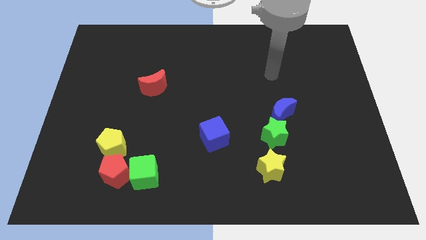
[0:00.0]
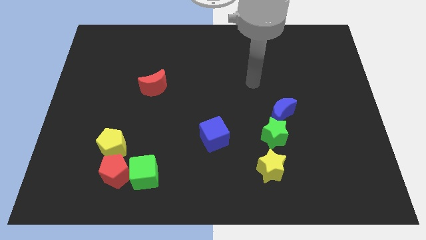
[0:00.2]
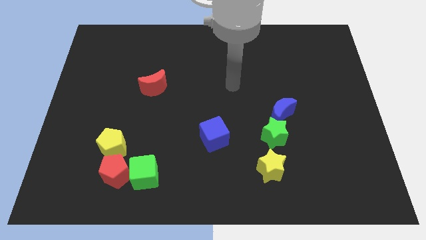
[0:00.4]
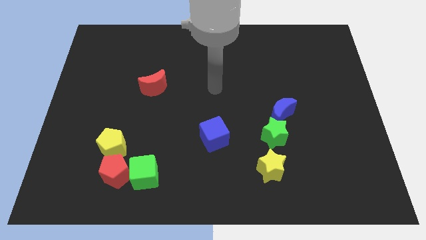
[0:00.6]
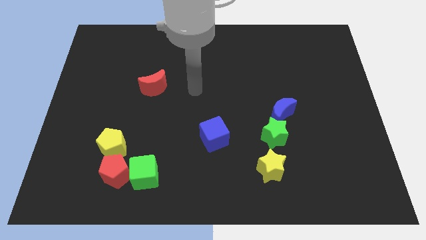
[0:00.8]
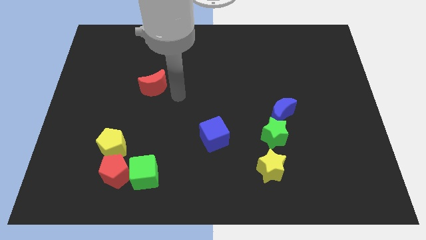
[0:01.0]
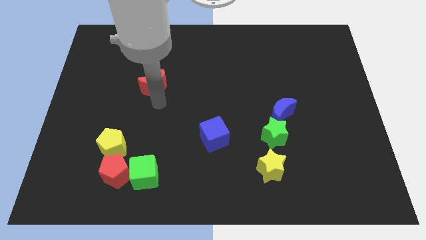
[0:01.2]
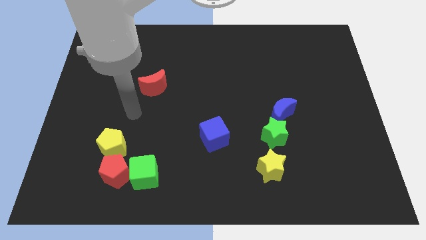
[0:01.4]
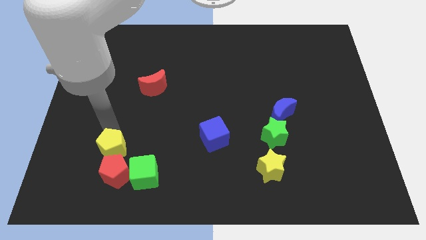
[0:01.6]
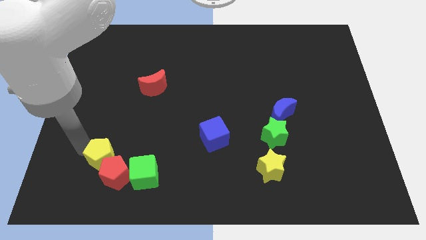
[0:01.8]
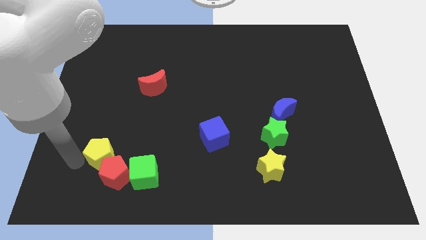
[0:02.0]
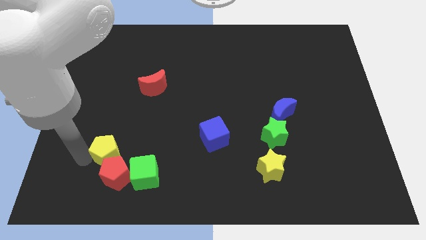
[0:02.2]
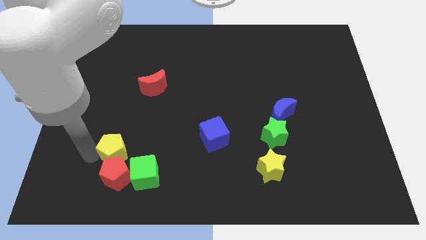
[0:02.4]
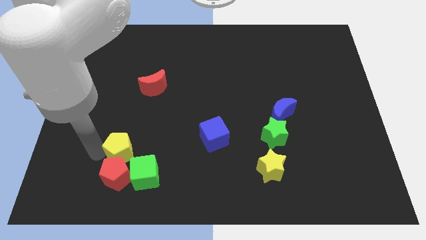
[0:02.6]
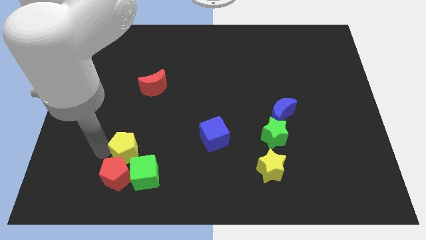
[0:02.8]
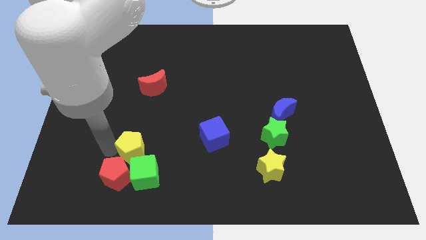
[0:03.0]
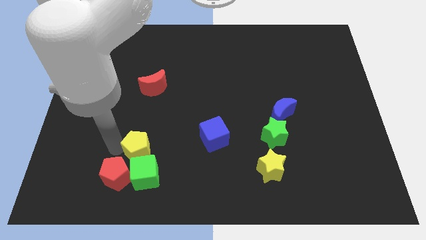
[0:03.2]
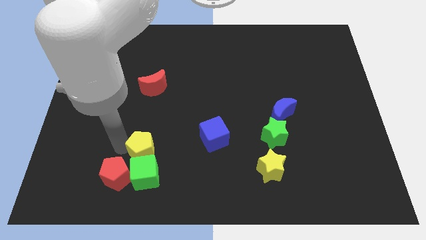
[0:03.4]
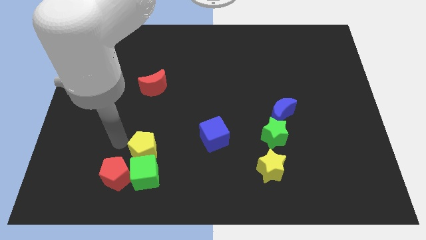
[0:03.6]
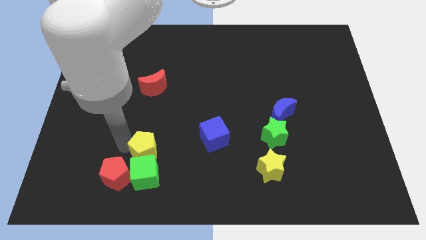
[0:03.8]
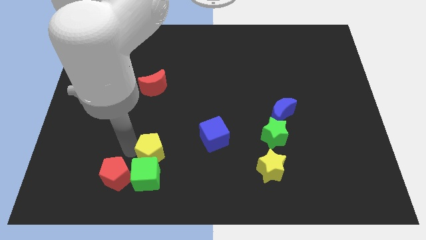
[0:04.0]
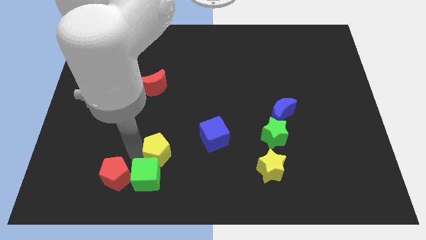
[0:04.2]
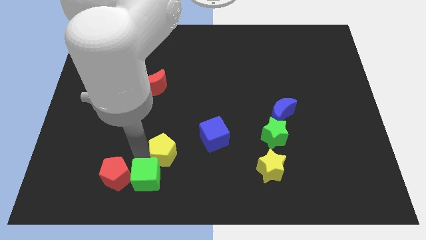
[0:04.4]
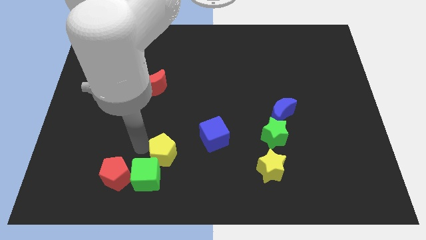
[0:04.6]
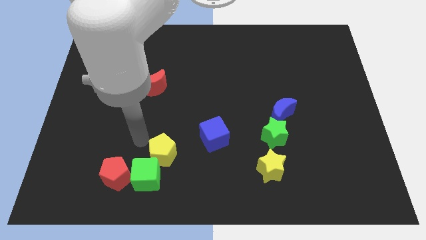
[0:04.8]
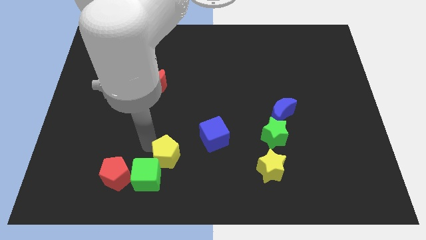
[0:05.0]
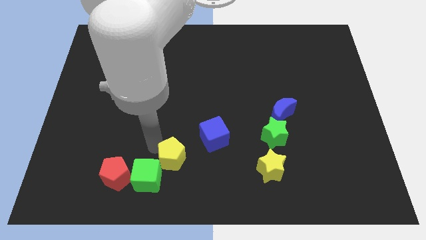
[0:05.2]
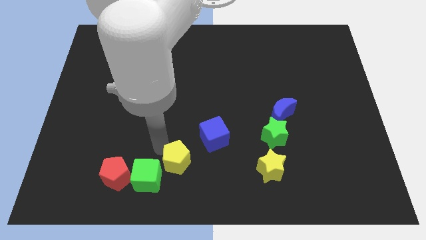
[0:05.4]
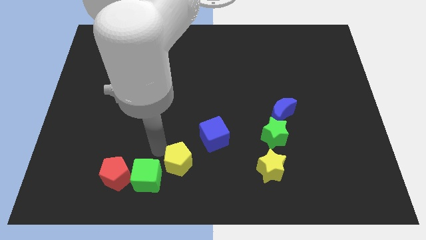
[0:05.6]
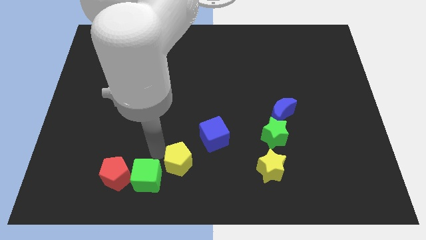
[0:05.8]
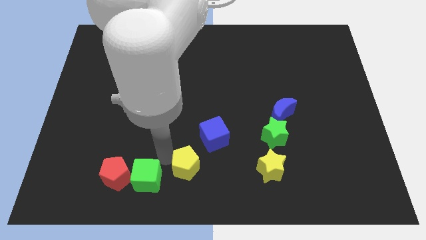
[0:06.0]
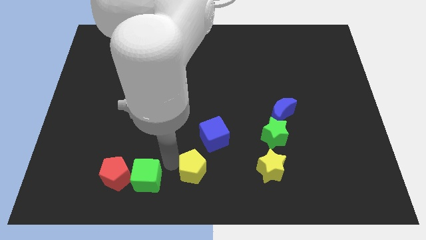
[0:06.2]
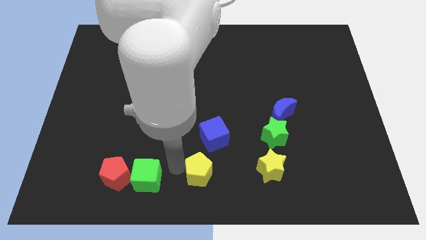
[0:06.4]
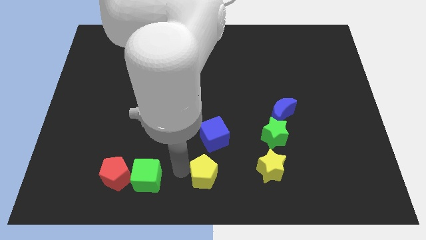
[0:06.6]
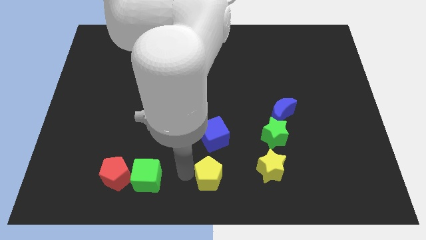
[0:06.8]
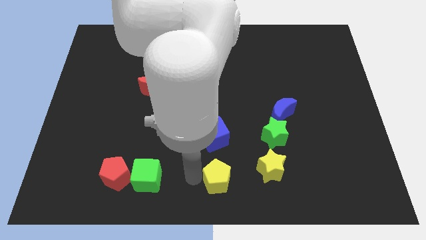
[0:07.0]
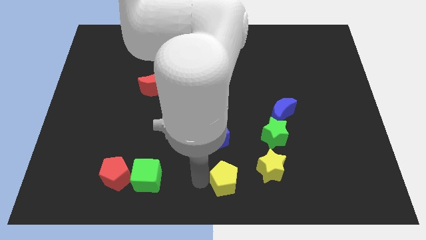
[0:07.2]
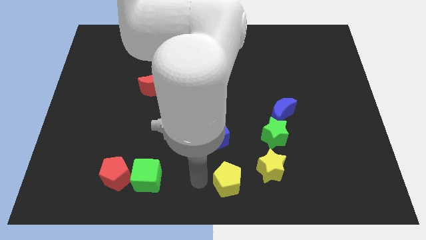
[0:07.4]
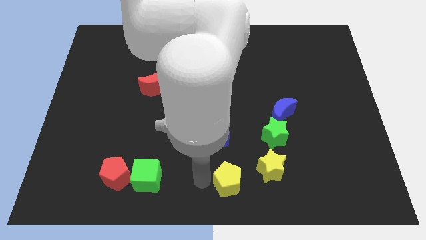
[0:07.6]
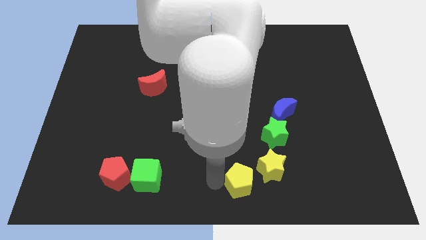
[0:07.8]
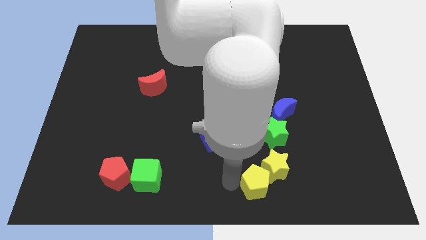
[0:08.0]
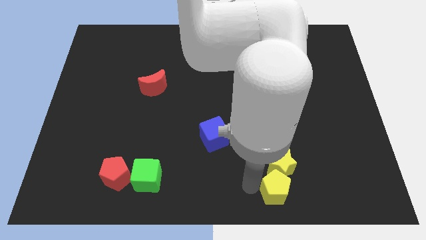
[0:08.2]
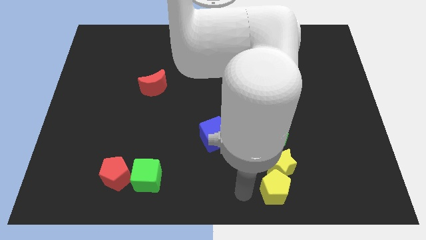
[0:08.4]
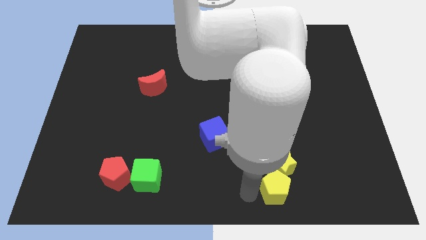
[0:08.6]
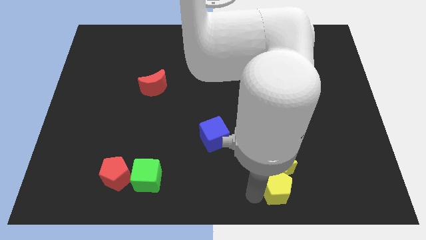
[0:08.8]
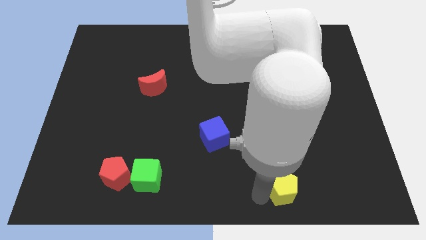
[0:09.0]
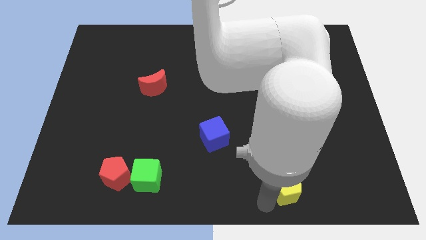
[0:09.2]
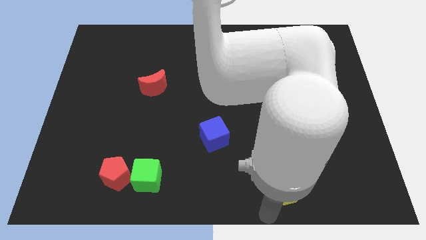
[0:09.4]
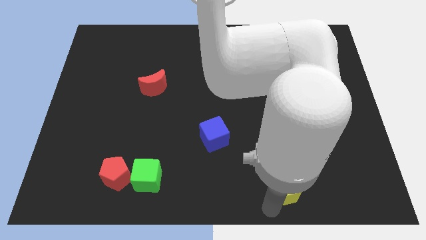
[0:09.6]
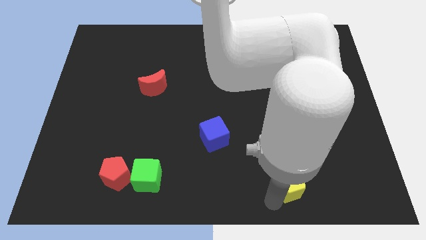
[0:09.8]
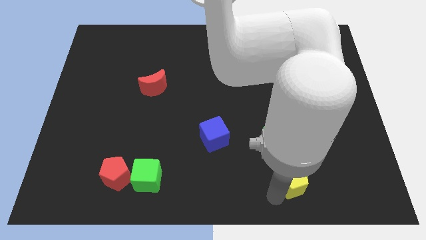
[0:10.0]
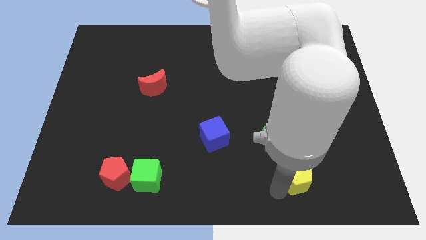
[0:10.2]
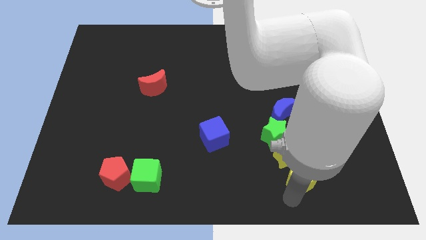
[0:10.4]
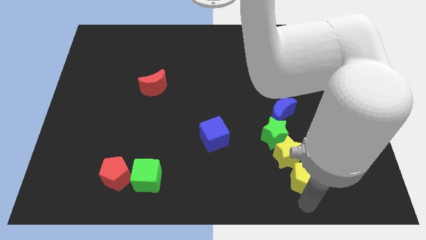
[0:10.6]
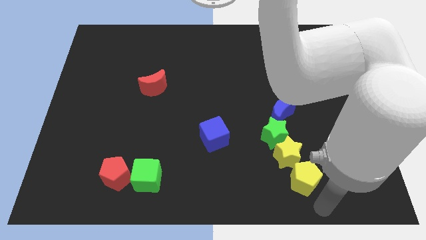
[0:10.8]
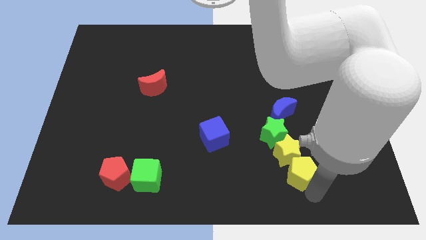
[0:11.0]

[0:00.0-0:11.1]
move the yellow pentagon below the blue moon

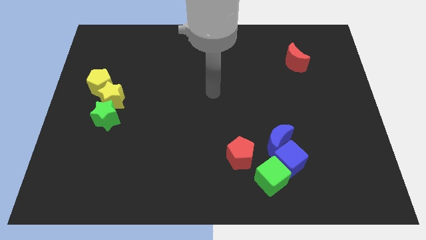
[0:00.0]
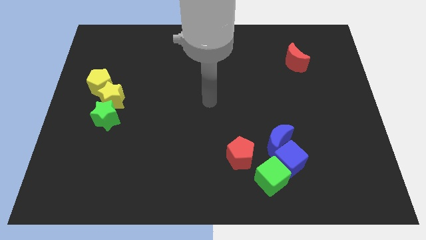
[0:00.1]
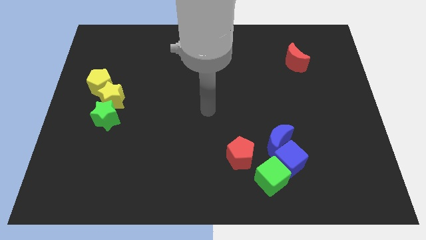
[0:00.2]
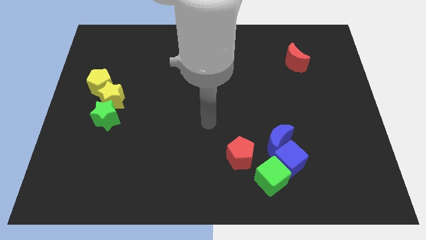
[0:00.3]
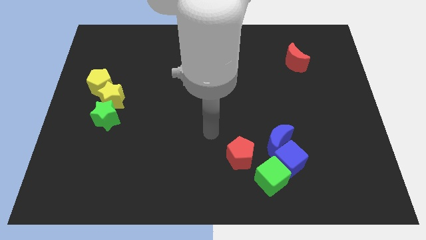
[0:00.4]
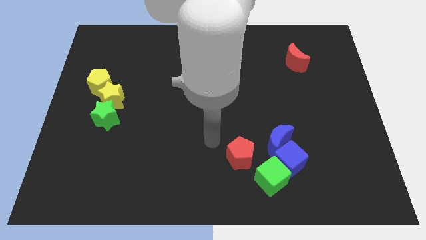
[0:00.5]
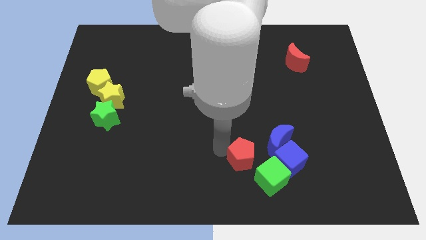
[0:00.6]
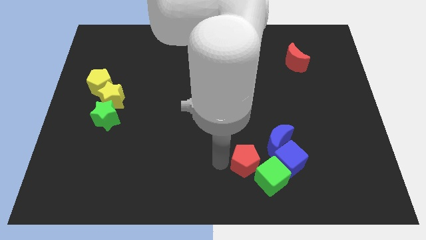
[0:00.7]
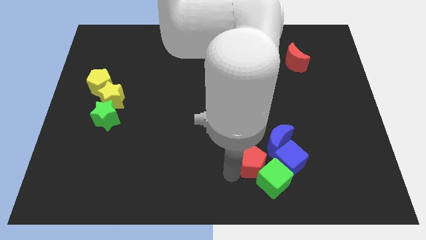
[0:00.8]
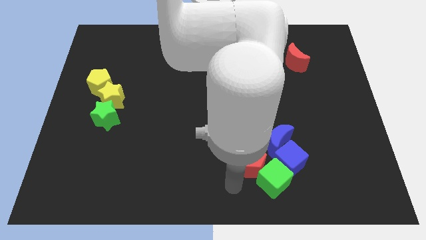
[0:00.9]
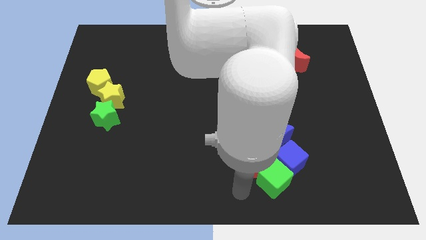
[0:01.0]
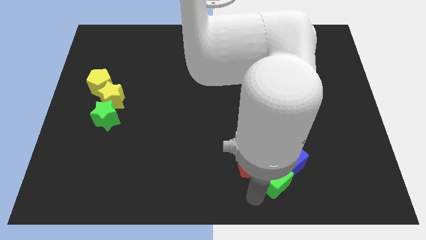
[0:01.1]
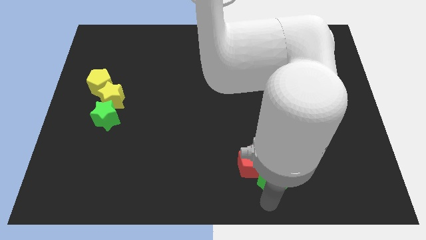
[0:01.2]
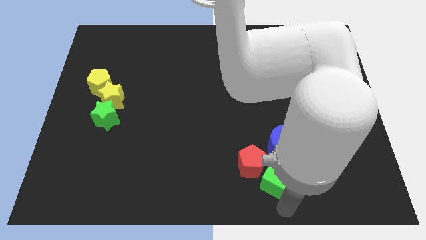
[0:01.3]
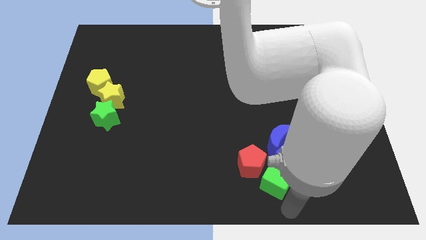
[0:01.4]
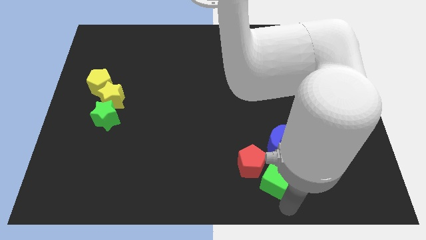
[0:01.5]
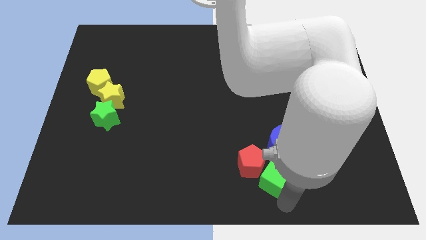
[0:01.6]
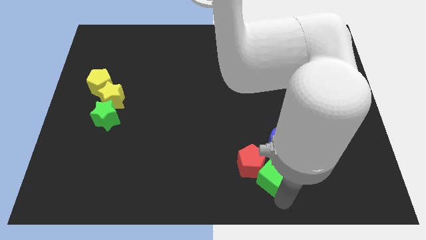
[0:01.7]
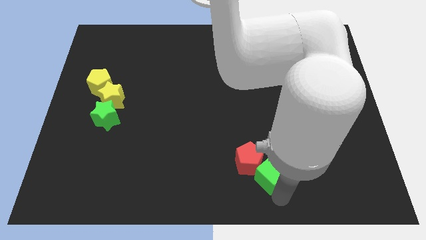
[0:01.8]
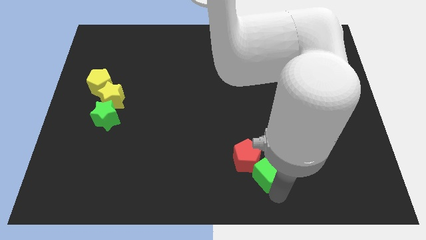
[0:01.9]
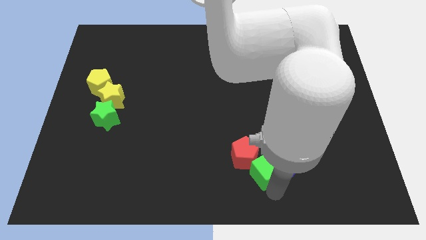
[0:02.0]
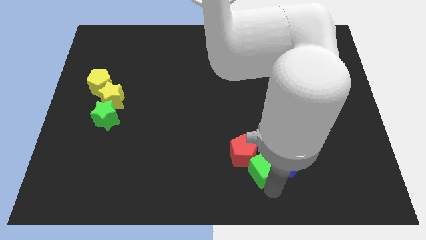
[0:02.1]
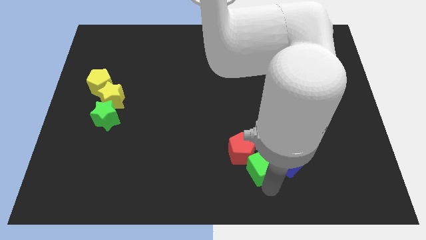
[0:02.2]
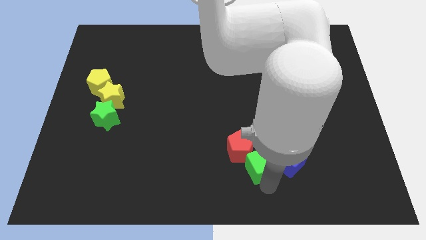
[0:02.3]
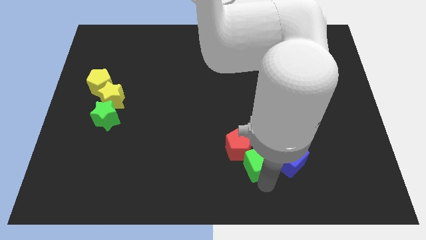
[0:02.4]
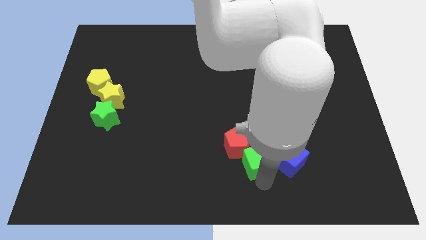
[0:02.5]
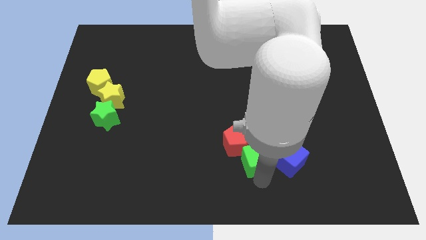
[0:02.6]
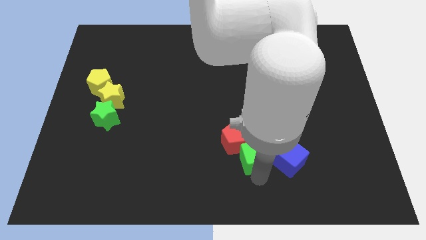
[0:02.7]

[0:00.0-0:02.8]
move the green cube to the top left of the blue cube
